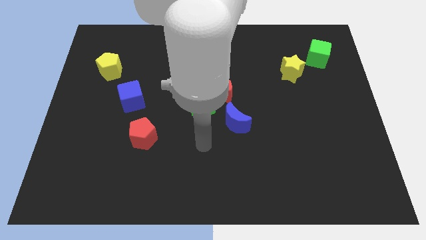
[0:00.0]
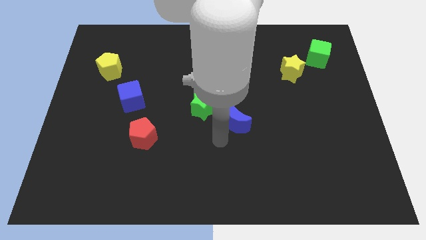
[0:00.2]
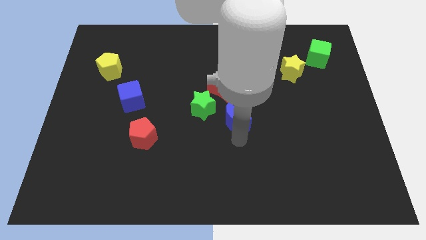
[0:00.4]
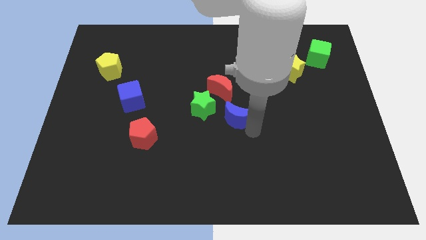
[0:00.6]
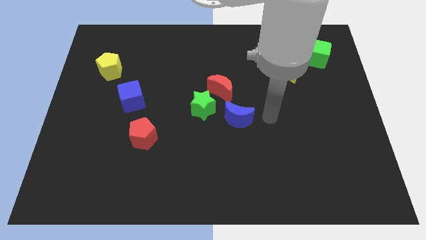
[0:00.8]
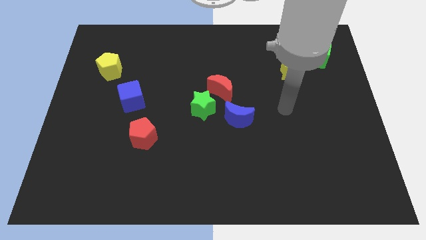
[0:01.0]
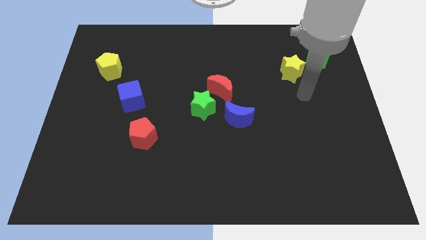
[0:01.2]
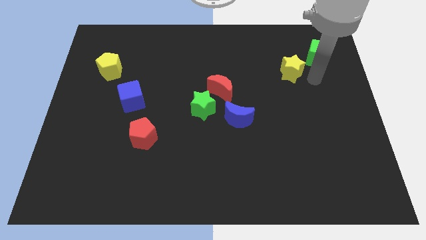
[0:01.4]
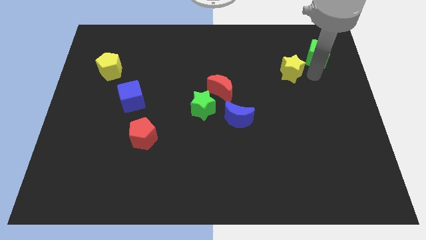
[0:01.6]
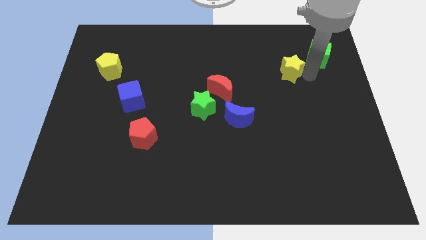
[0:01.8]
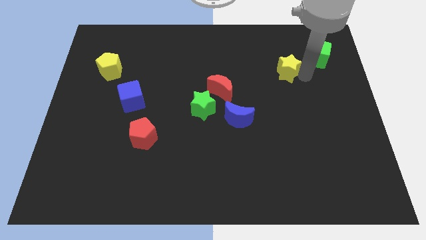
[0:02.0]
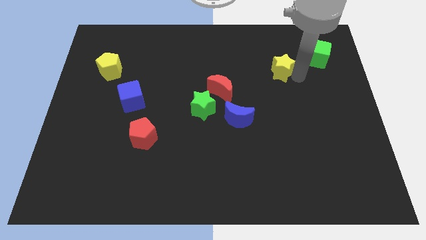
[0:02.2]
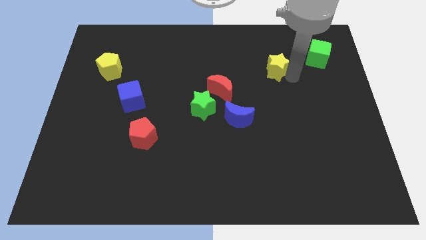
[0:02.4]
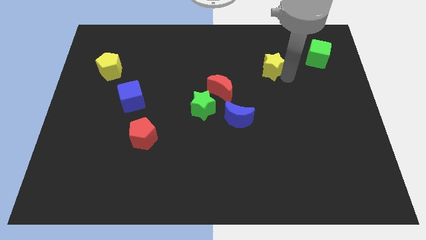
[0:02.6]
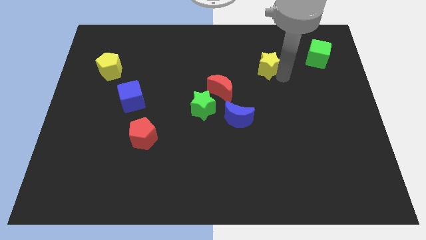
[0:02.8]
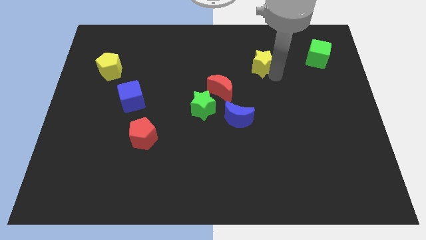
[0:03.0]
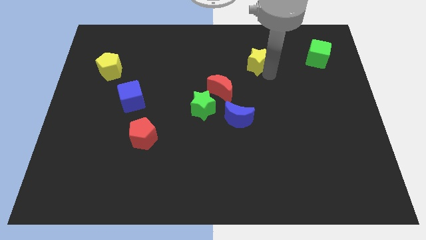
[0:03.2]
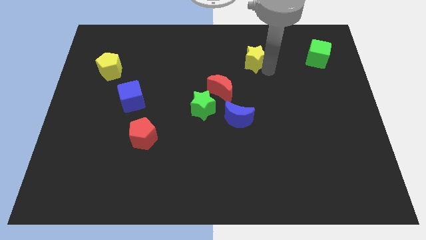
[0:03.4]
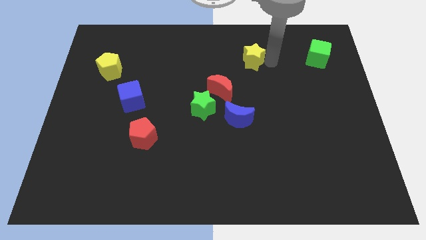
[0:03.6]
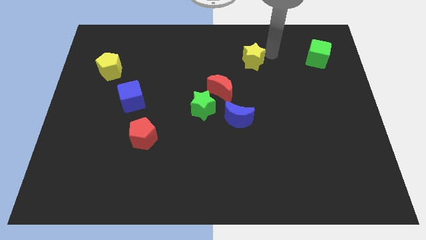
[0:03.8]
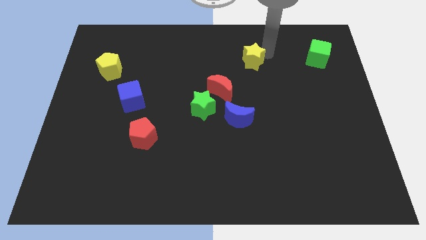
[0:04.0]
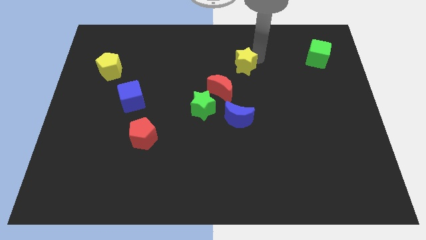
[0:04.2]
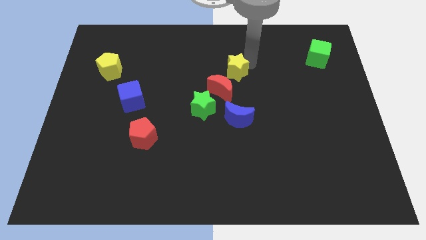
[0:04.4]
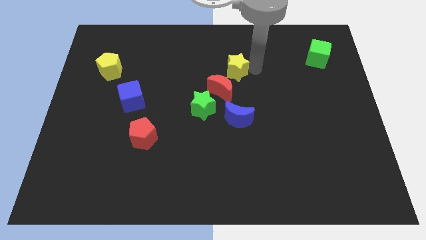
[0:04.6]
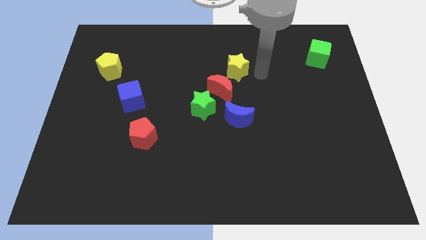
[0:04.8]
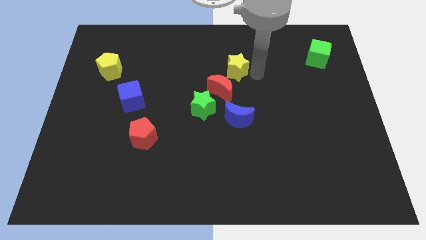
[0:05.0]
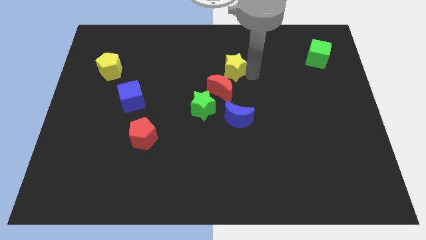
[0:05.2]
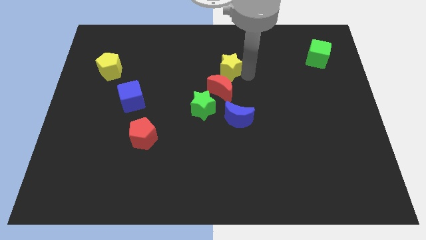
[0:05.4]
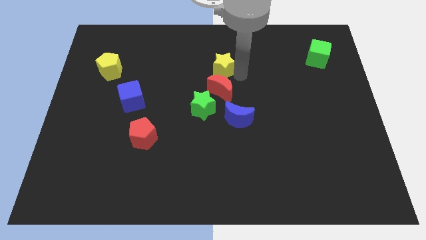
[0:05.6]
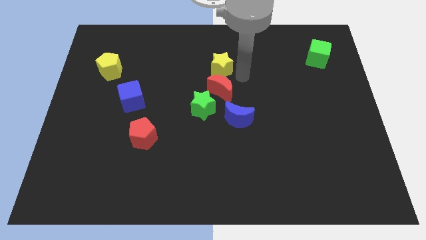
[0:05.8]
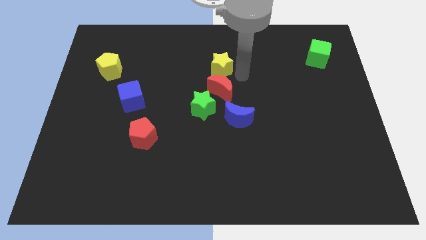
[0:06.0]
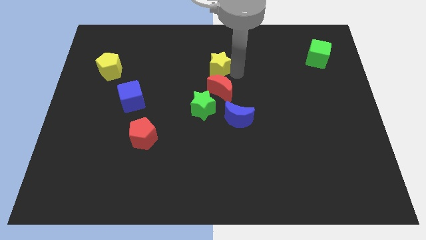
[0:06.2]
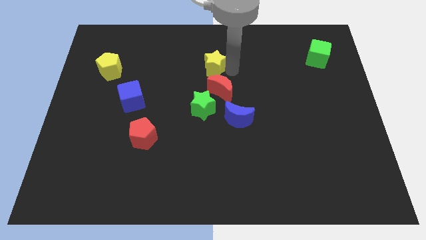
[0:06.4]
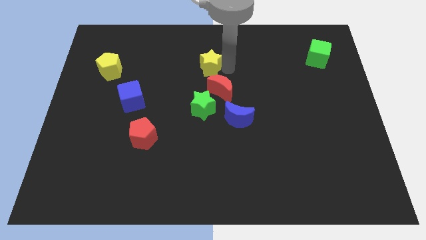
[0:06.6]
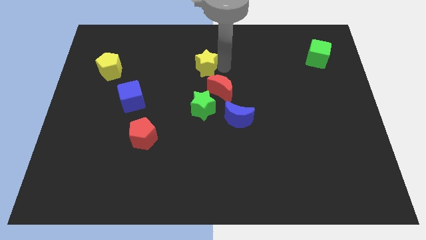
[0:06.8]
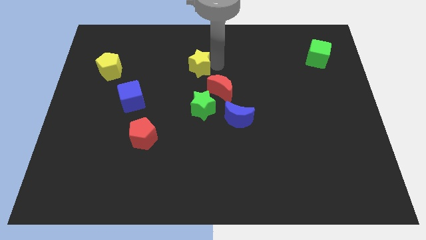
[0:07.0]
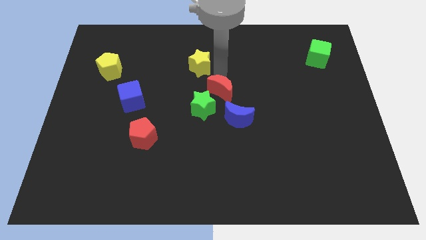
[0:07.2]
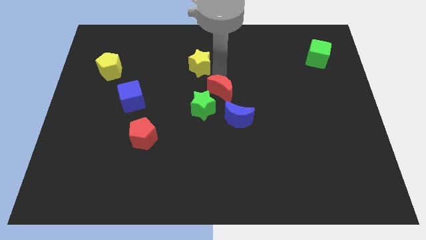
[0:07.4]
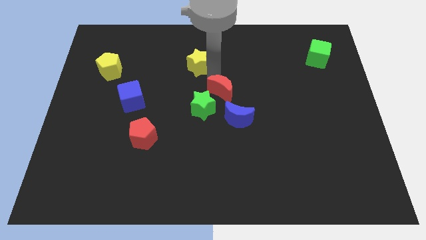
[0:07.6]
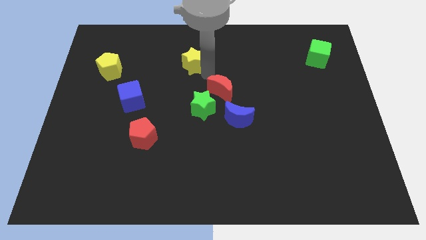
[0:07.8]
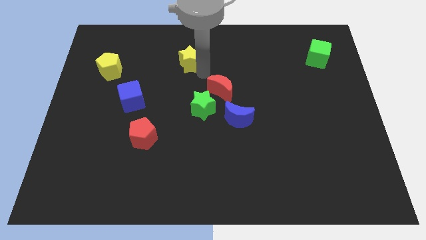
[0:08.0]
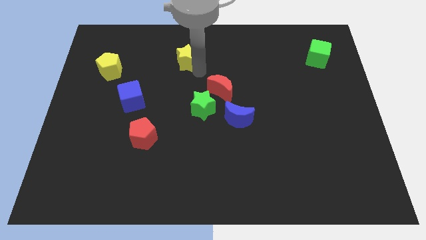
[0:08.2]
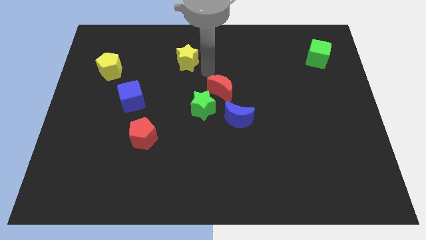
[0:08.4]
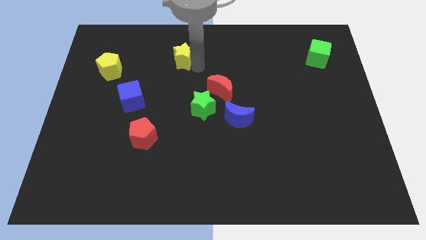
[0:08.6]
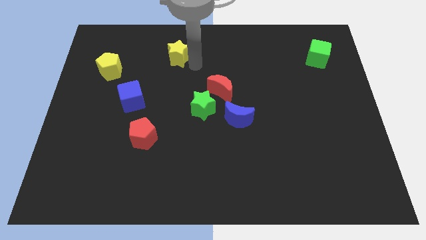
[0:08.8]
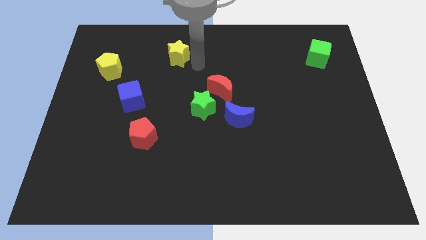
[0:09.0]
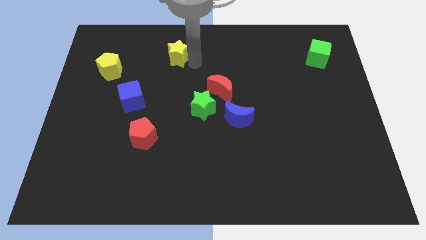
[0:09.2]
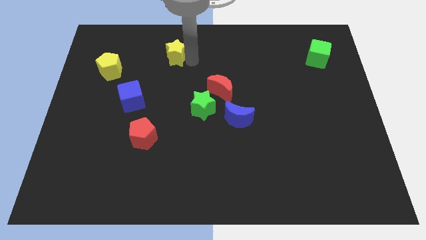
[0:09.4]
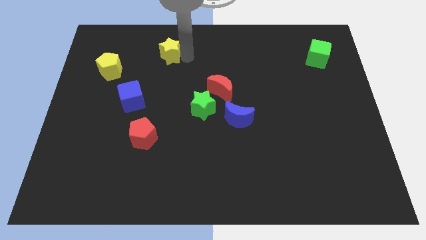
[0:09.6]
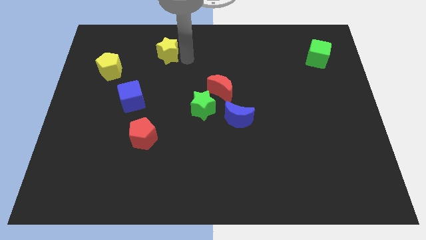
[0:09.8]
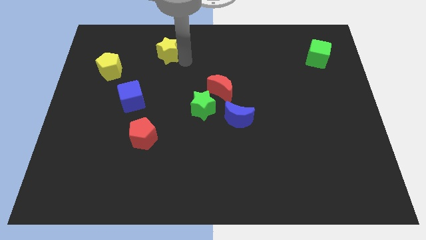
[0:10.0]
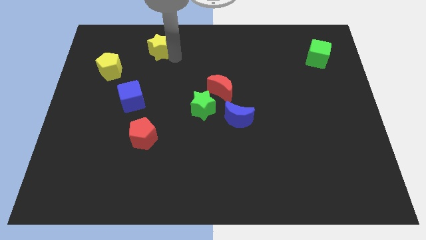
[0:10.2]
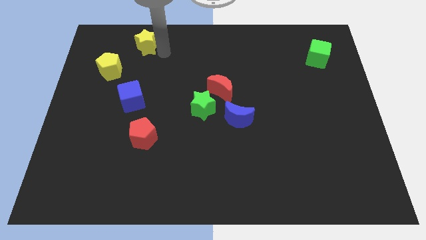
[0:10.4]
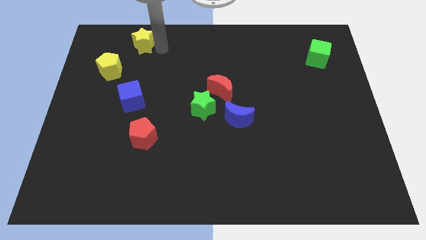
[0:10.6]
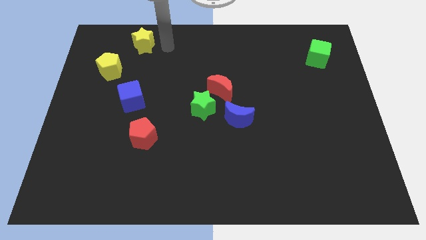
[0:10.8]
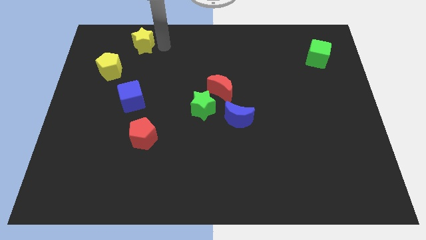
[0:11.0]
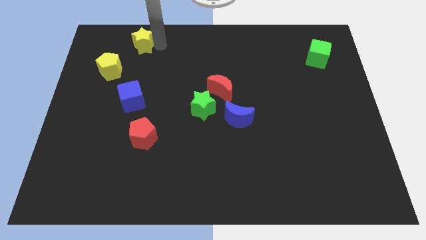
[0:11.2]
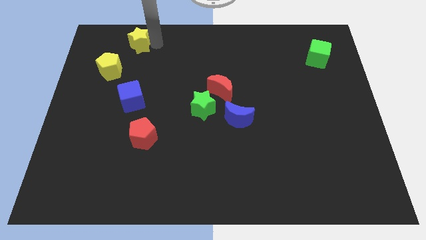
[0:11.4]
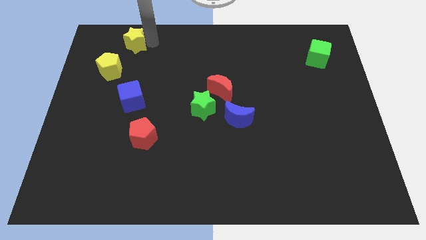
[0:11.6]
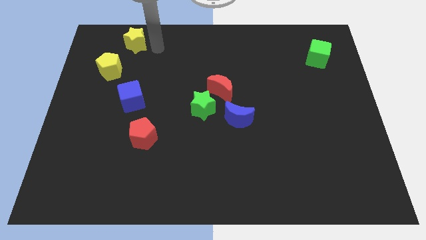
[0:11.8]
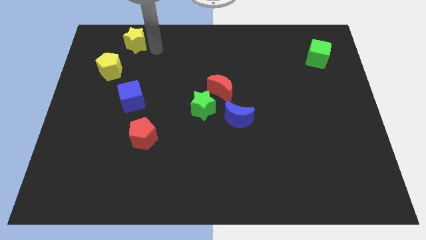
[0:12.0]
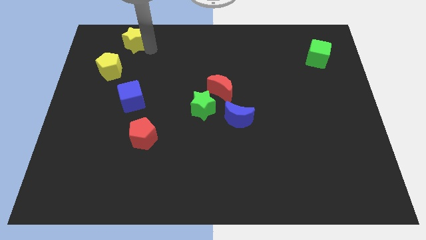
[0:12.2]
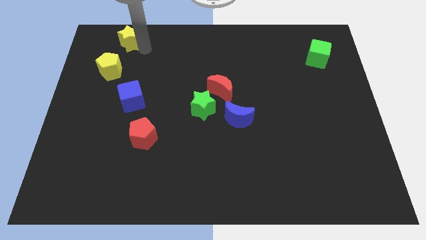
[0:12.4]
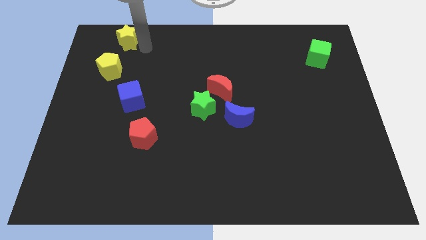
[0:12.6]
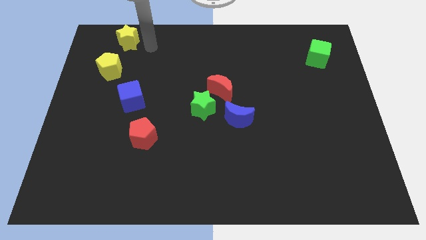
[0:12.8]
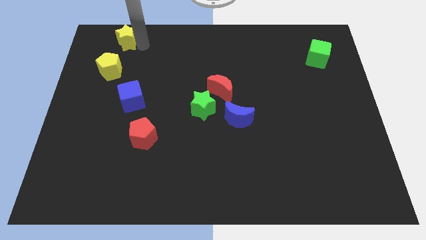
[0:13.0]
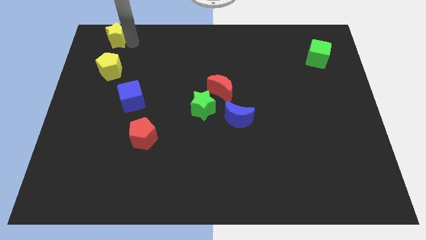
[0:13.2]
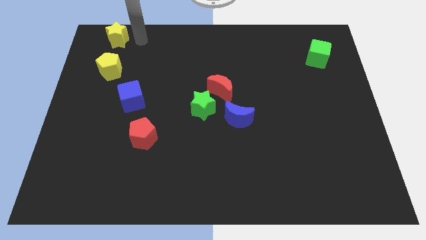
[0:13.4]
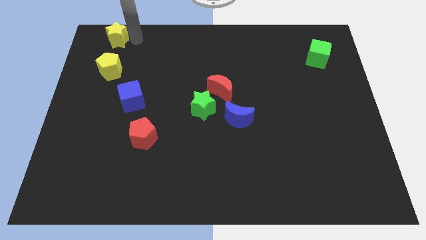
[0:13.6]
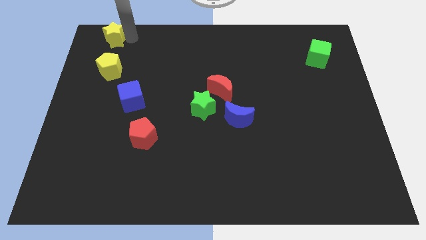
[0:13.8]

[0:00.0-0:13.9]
slide the yellow star to the upper left corner
